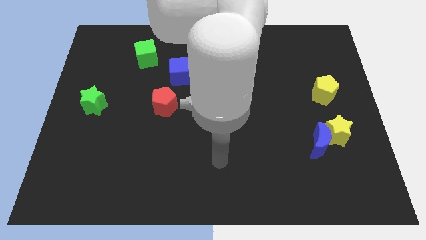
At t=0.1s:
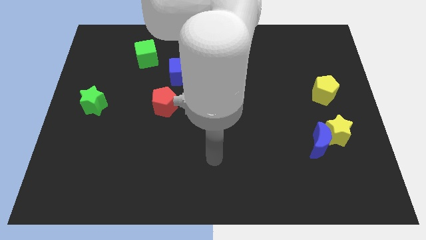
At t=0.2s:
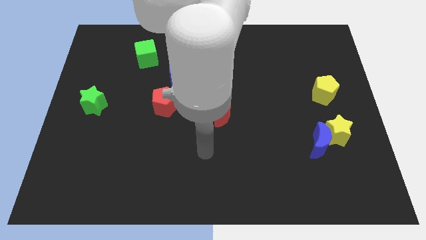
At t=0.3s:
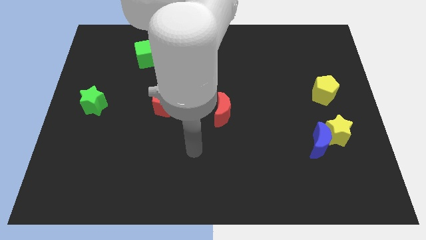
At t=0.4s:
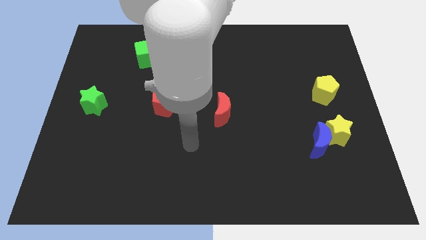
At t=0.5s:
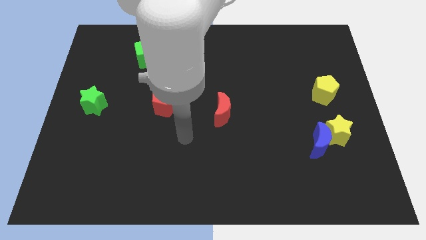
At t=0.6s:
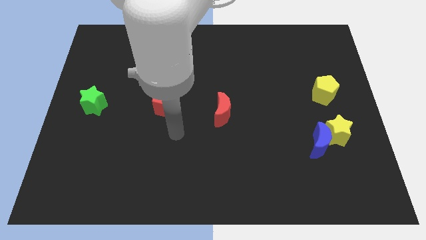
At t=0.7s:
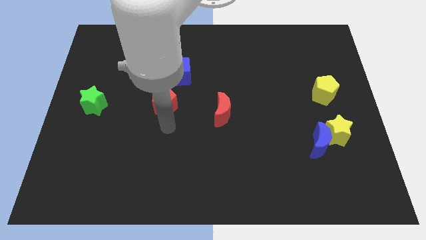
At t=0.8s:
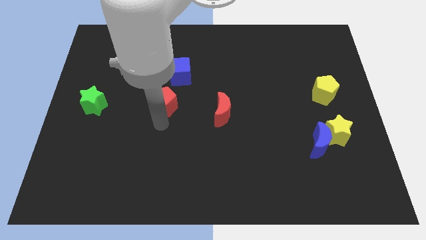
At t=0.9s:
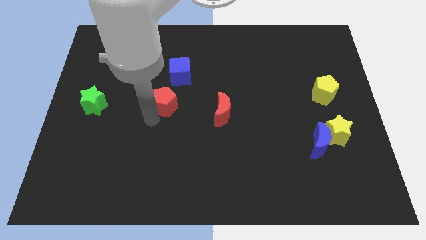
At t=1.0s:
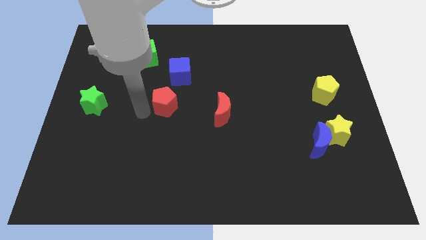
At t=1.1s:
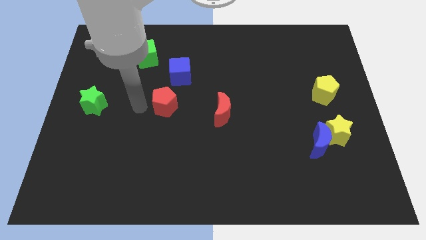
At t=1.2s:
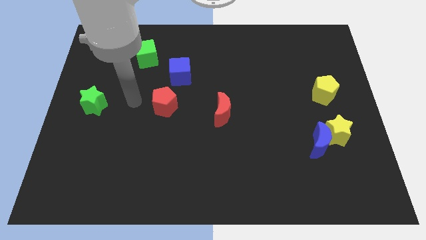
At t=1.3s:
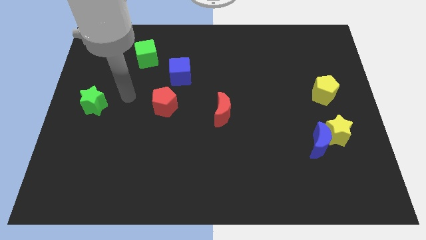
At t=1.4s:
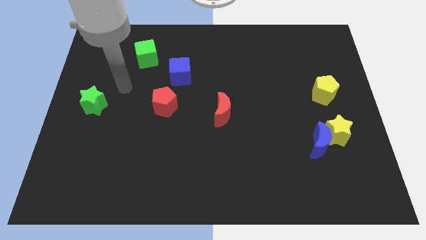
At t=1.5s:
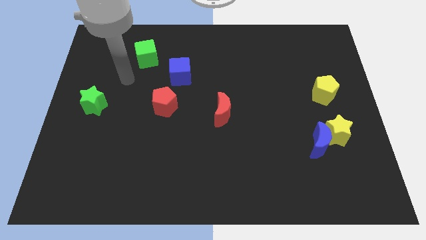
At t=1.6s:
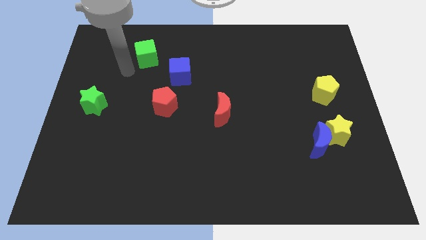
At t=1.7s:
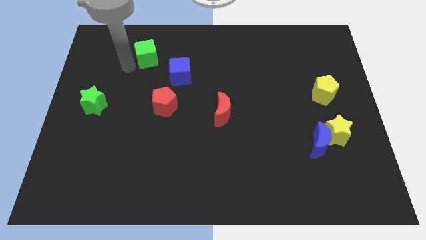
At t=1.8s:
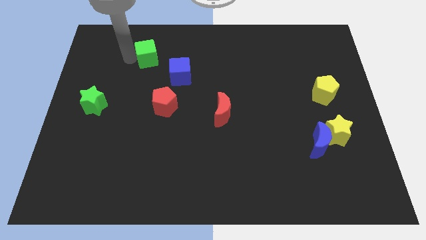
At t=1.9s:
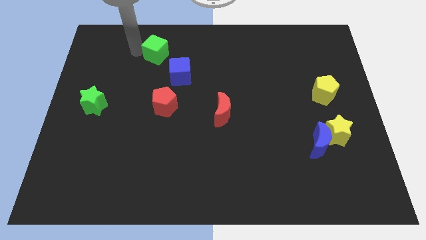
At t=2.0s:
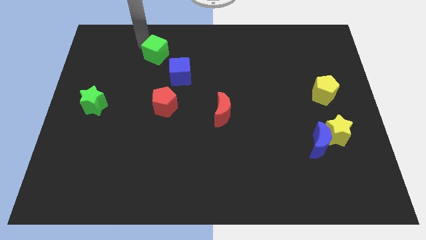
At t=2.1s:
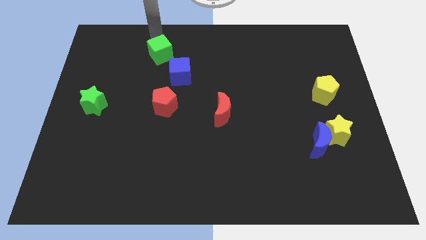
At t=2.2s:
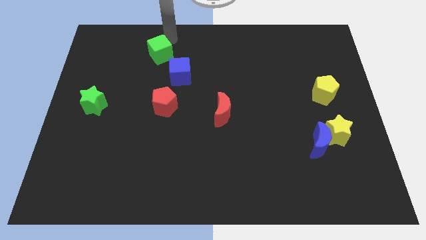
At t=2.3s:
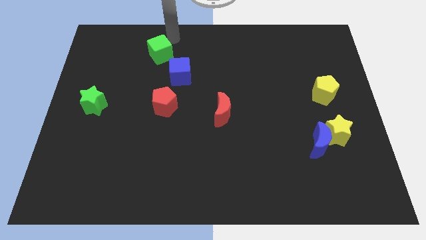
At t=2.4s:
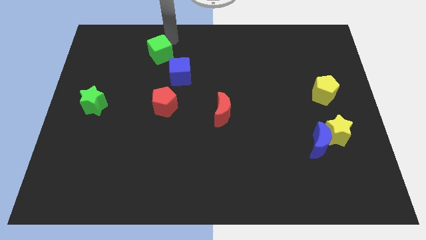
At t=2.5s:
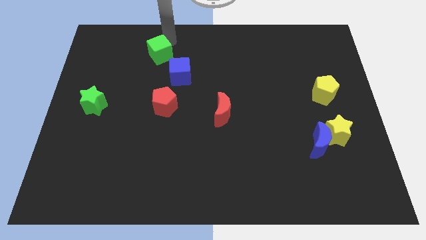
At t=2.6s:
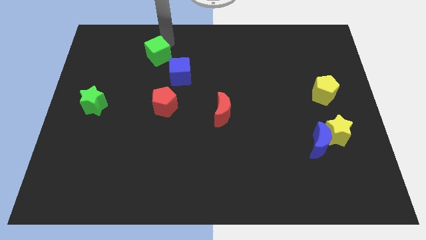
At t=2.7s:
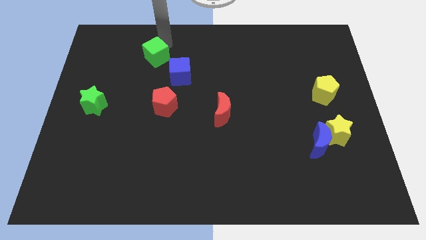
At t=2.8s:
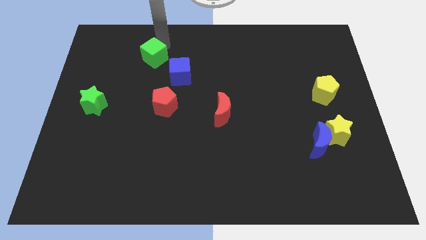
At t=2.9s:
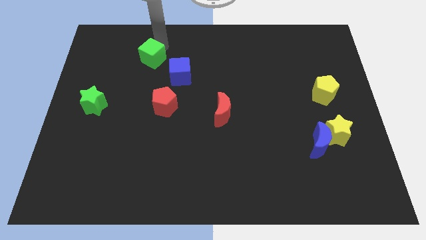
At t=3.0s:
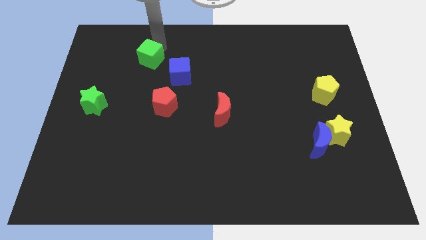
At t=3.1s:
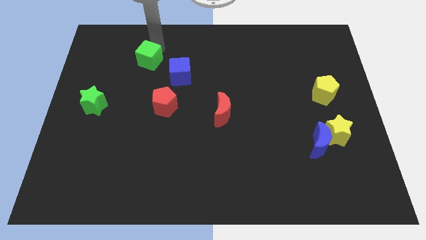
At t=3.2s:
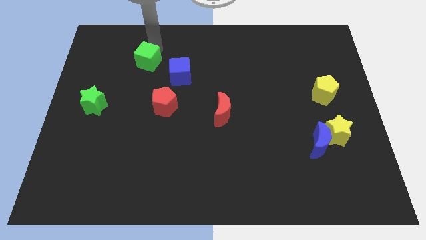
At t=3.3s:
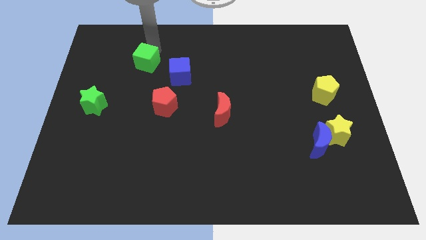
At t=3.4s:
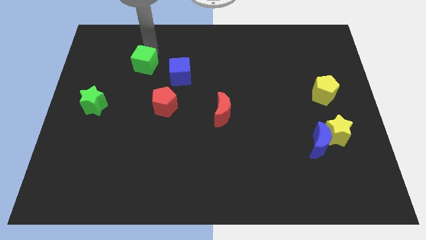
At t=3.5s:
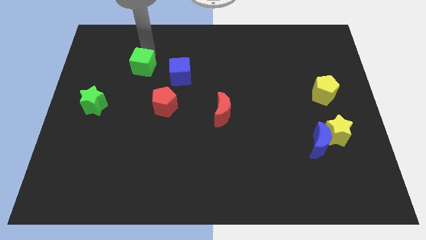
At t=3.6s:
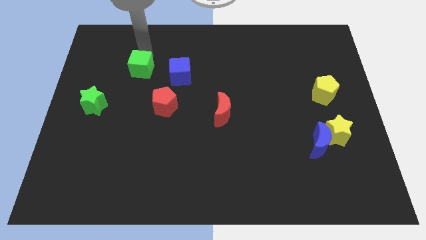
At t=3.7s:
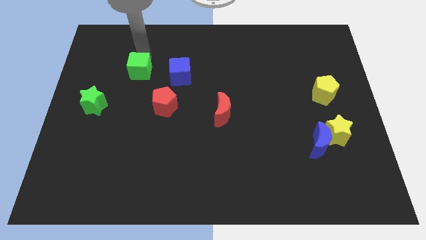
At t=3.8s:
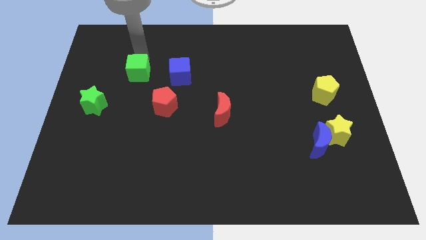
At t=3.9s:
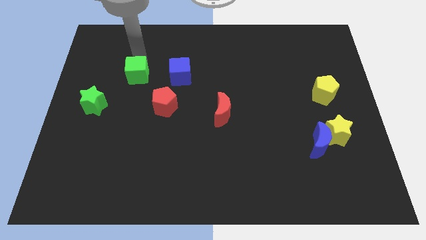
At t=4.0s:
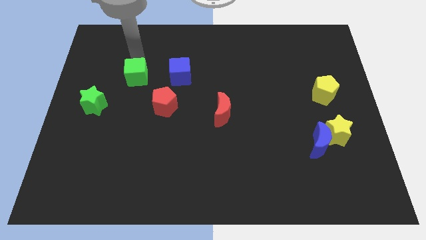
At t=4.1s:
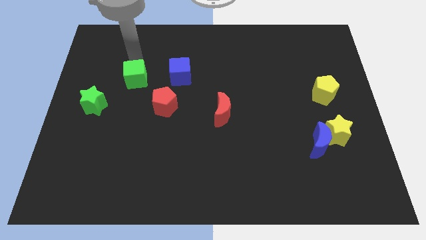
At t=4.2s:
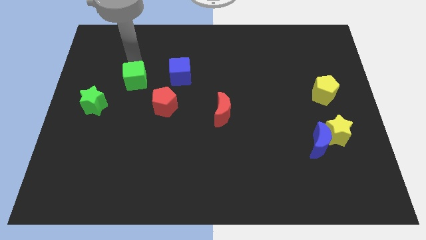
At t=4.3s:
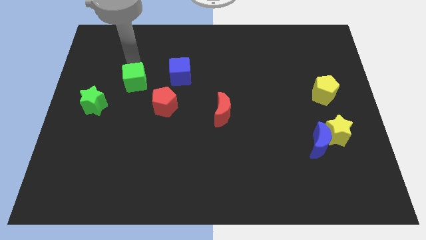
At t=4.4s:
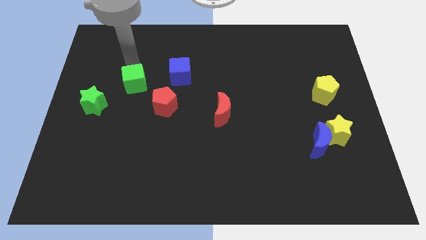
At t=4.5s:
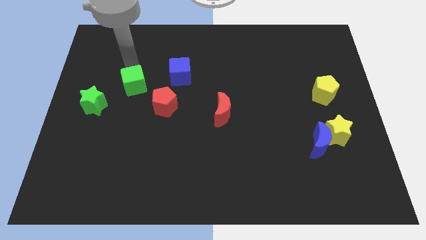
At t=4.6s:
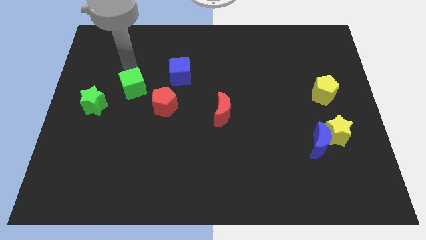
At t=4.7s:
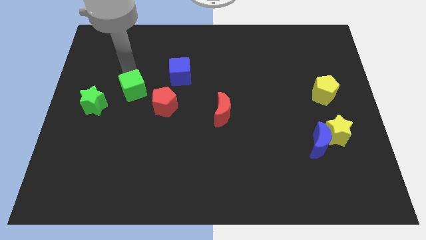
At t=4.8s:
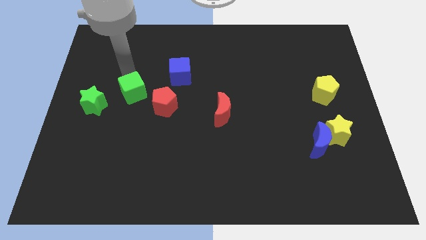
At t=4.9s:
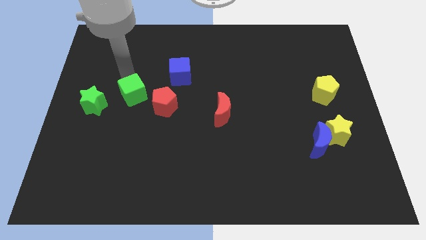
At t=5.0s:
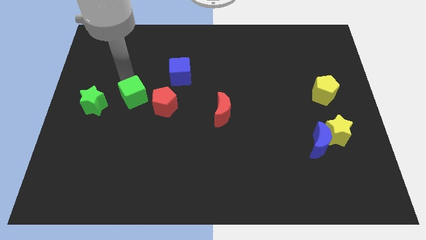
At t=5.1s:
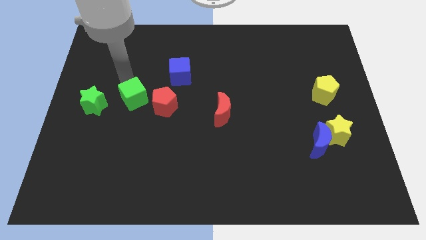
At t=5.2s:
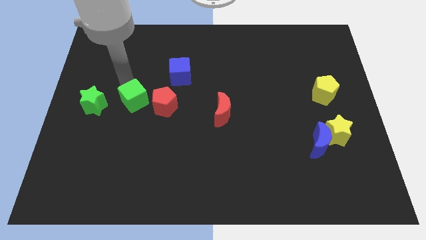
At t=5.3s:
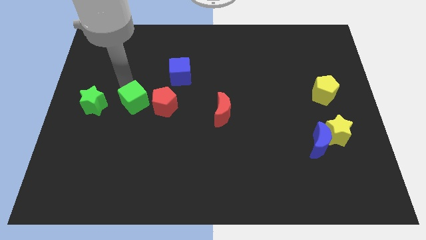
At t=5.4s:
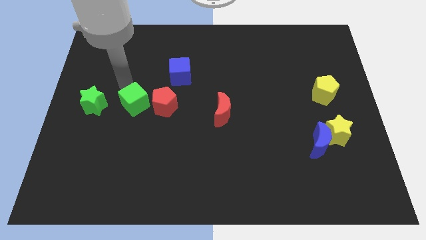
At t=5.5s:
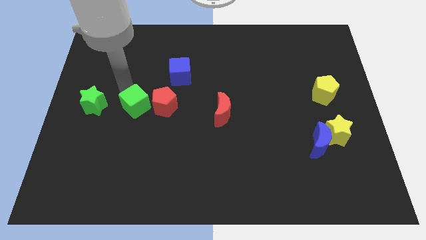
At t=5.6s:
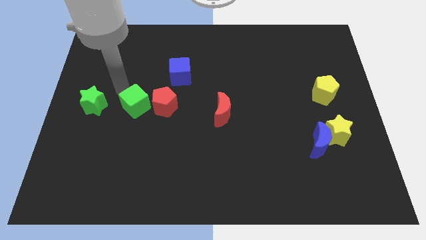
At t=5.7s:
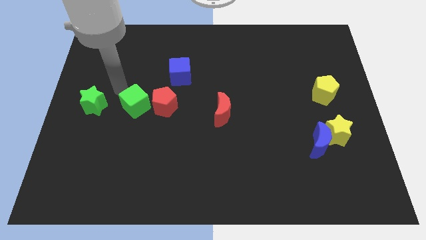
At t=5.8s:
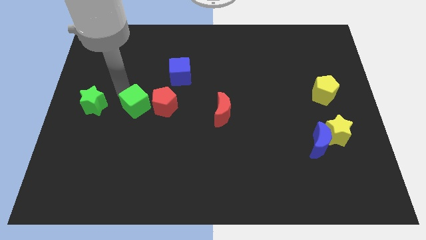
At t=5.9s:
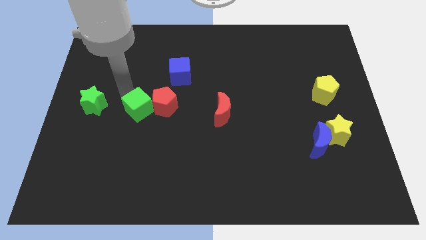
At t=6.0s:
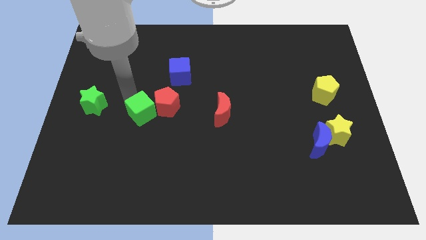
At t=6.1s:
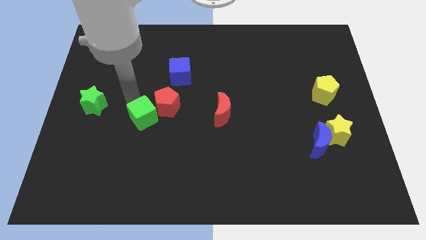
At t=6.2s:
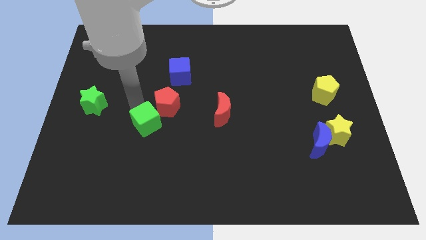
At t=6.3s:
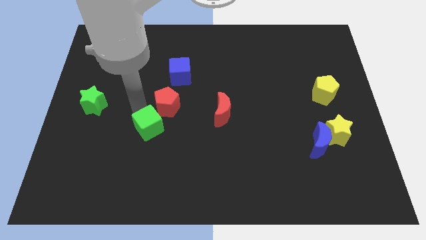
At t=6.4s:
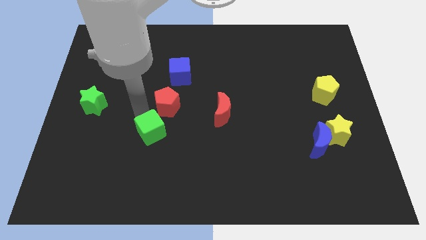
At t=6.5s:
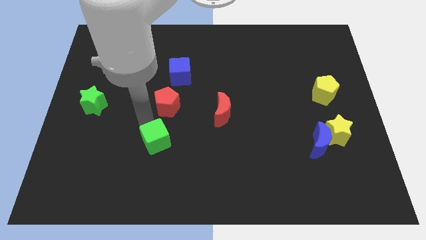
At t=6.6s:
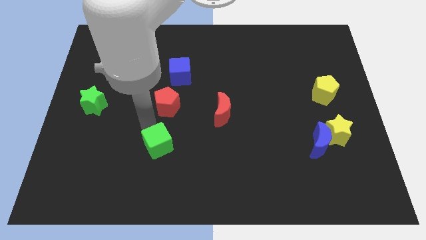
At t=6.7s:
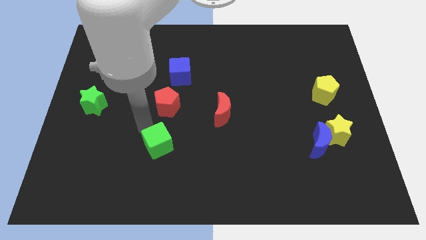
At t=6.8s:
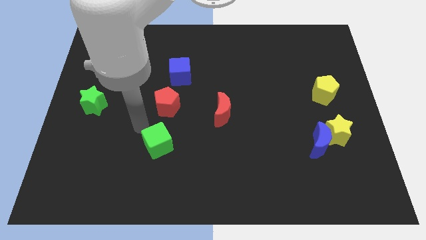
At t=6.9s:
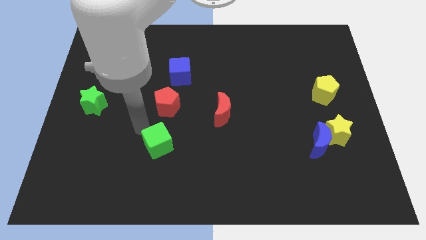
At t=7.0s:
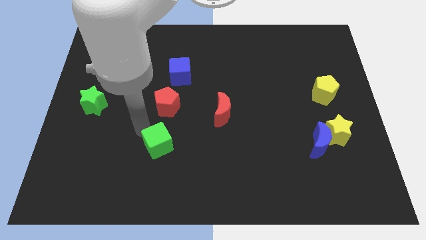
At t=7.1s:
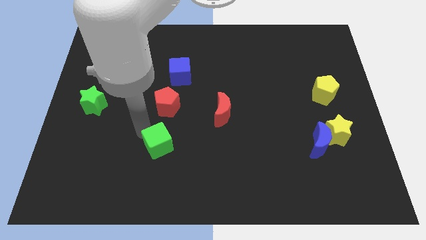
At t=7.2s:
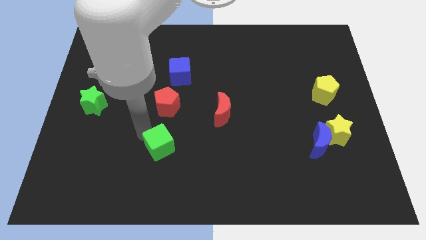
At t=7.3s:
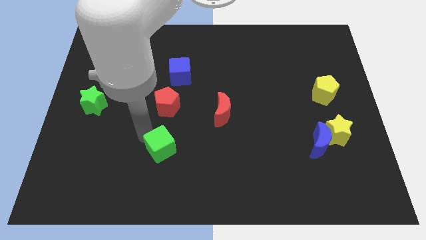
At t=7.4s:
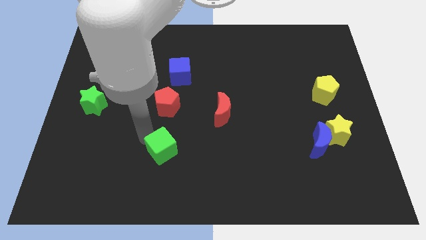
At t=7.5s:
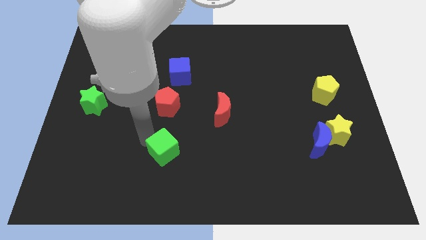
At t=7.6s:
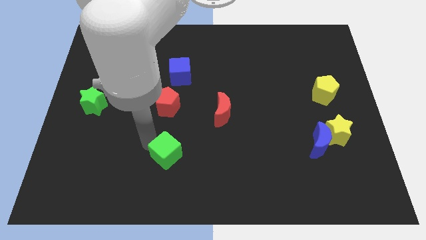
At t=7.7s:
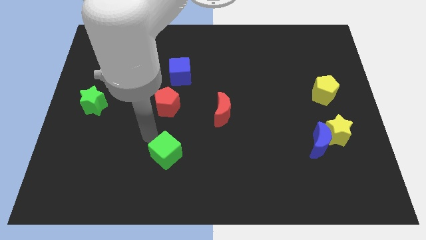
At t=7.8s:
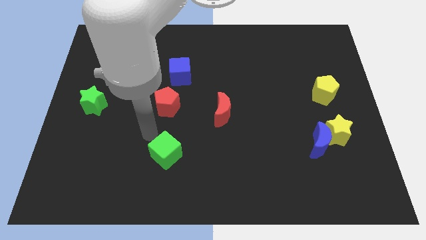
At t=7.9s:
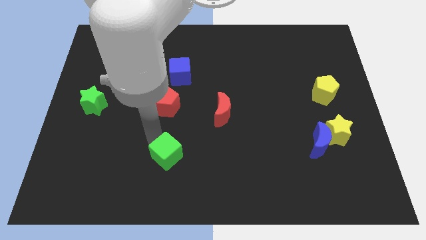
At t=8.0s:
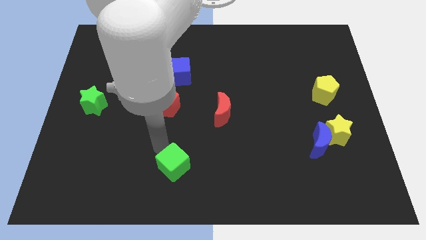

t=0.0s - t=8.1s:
move the green cube to the bottom side
